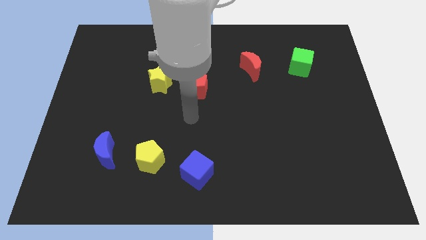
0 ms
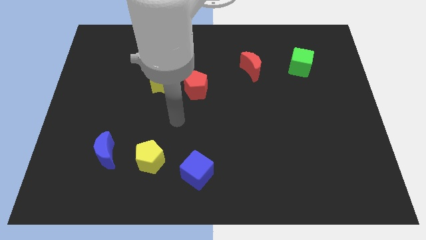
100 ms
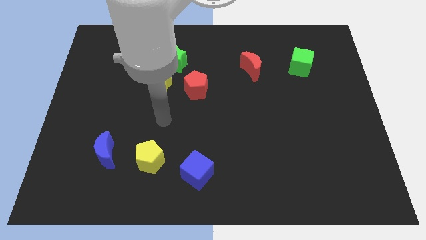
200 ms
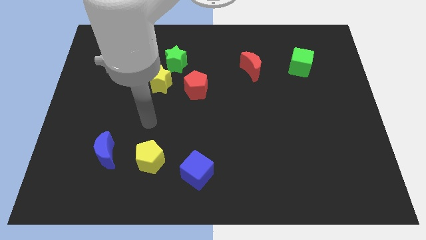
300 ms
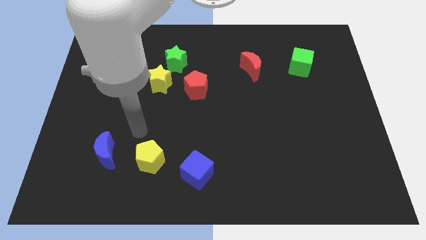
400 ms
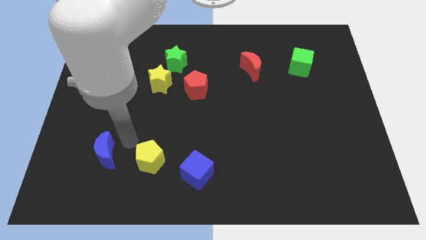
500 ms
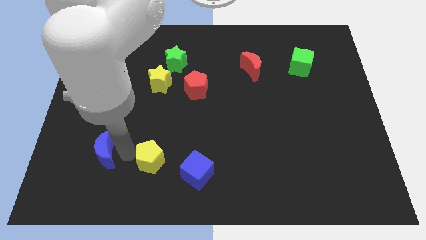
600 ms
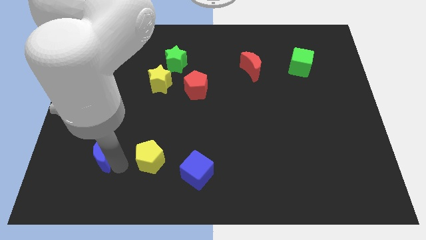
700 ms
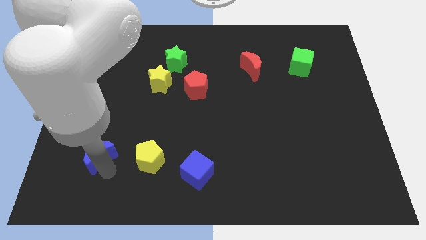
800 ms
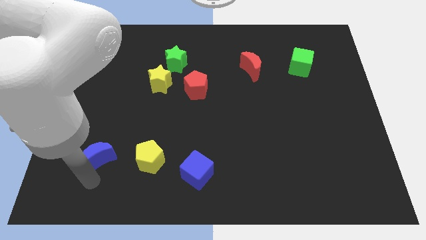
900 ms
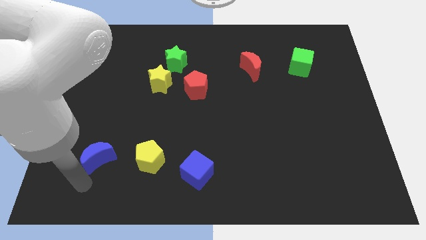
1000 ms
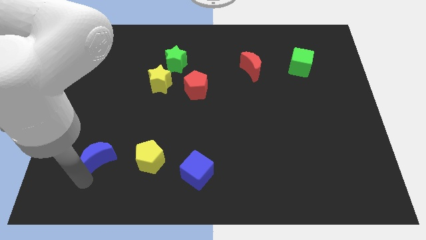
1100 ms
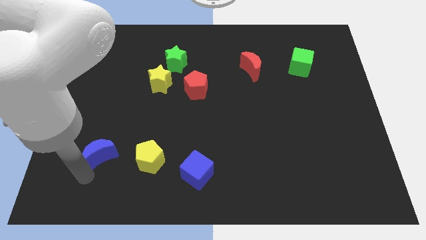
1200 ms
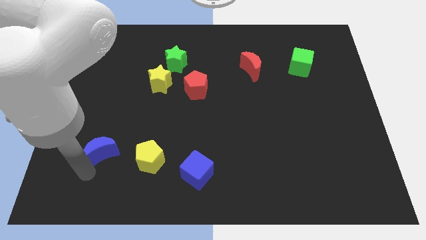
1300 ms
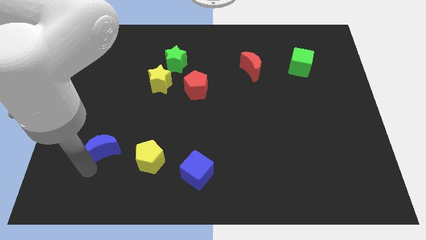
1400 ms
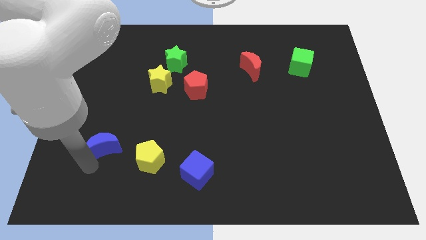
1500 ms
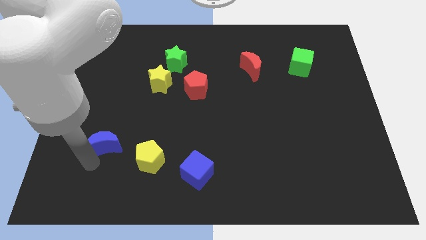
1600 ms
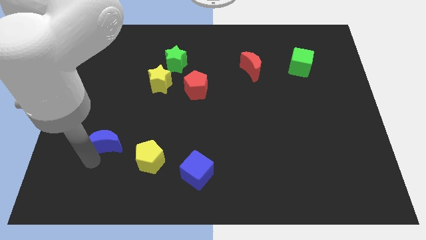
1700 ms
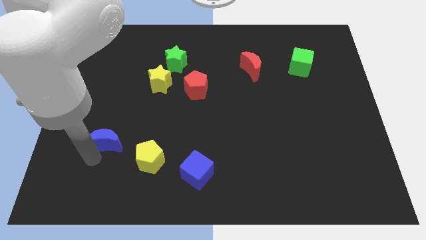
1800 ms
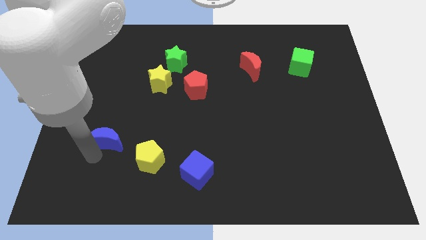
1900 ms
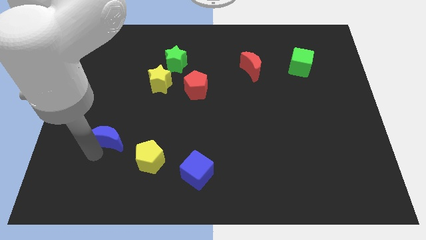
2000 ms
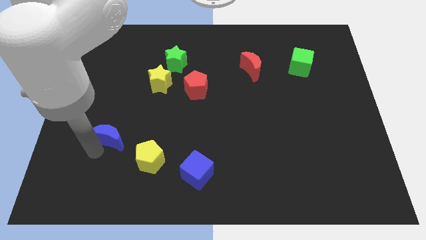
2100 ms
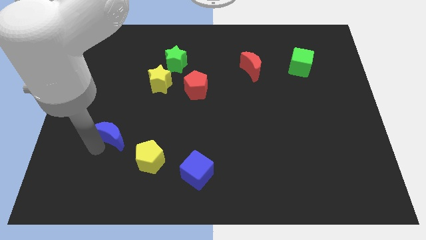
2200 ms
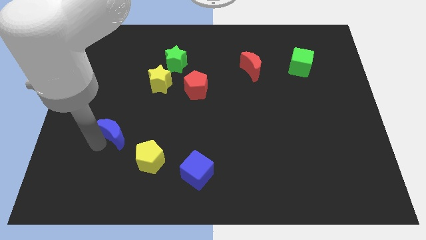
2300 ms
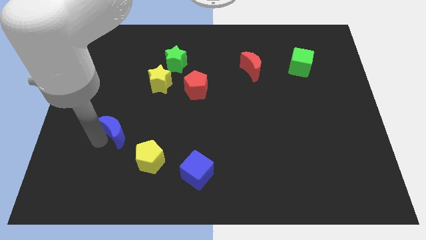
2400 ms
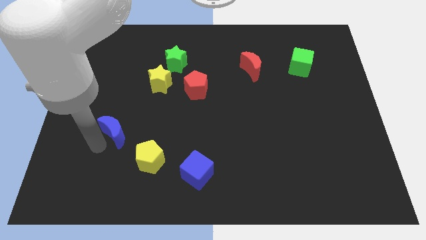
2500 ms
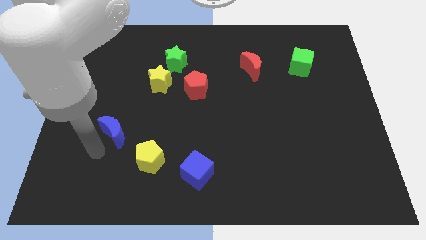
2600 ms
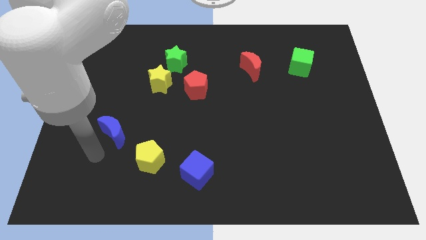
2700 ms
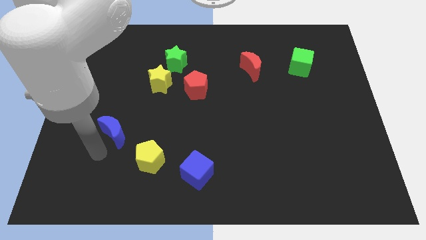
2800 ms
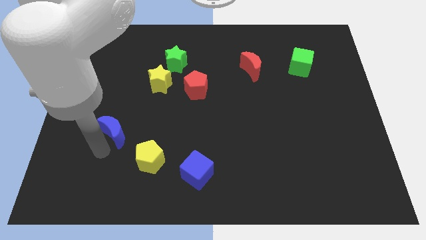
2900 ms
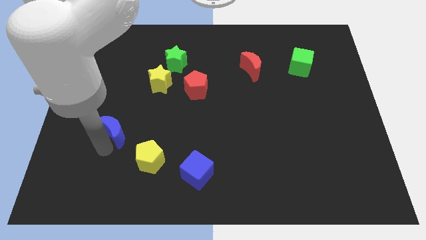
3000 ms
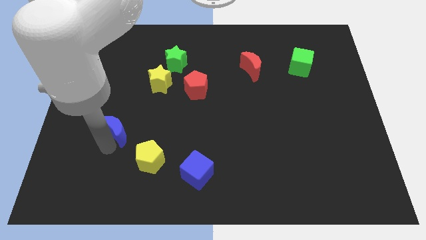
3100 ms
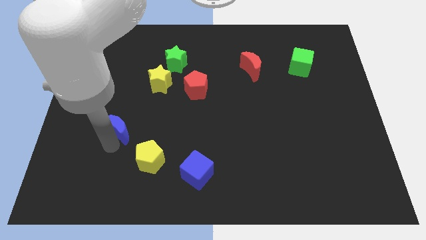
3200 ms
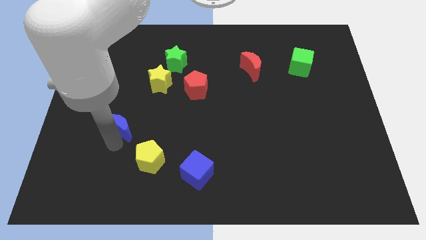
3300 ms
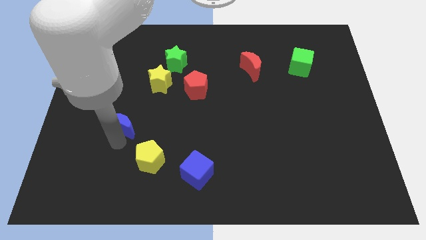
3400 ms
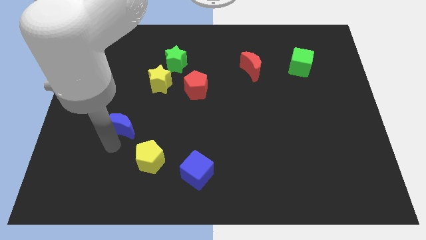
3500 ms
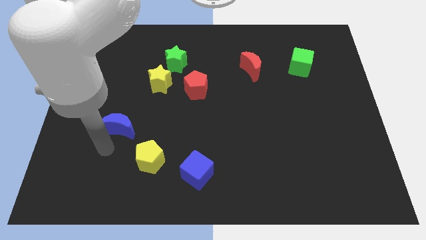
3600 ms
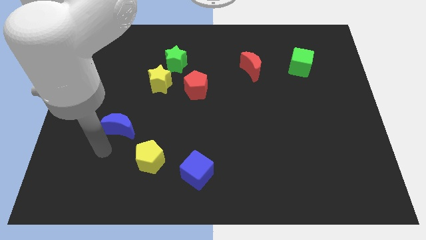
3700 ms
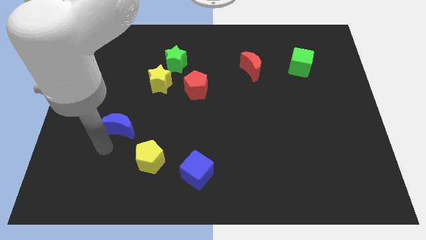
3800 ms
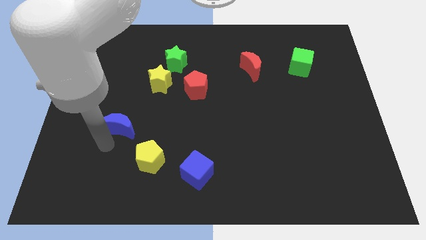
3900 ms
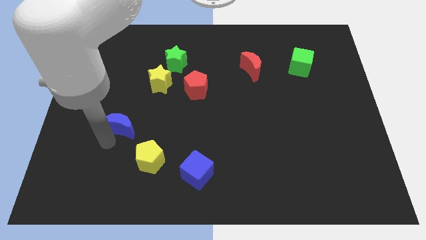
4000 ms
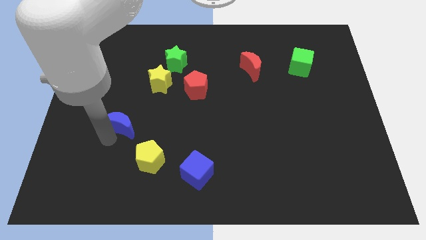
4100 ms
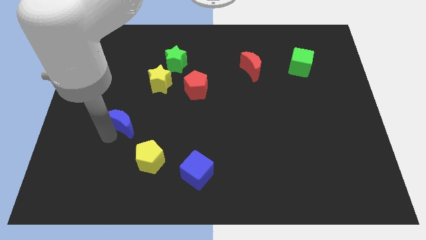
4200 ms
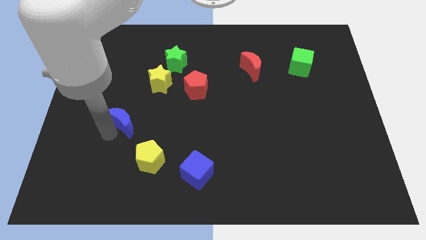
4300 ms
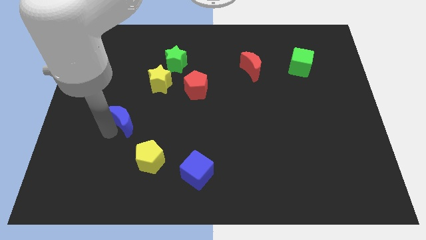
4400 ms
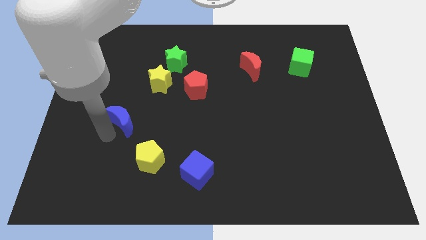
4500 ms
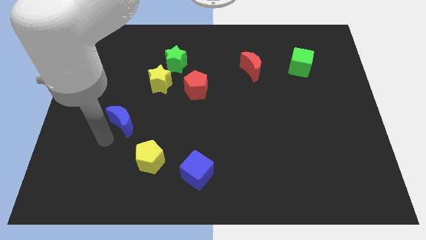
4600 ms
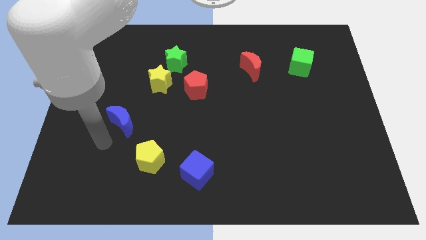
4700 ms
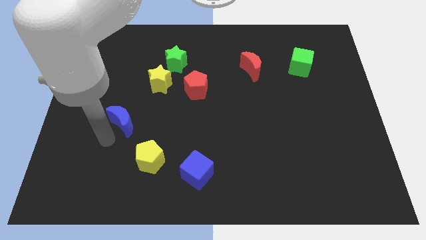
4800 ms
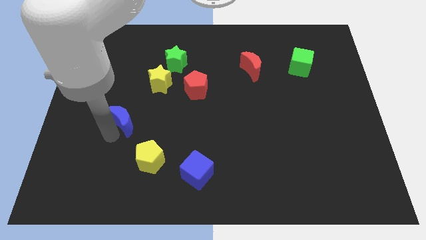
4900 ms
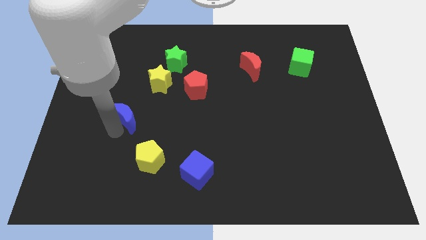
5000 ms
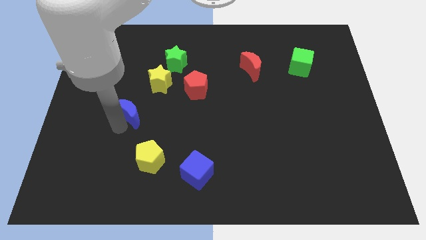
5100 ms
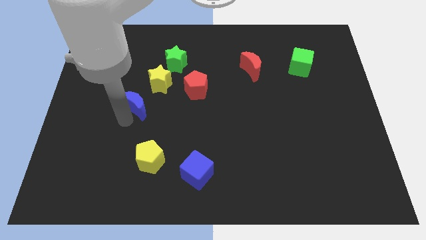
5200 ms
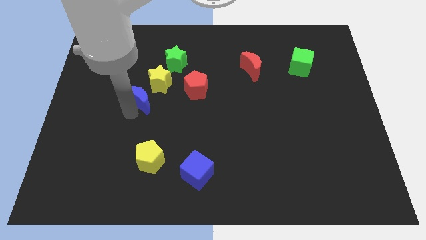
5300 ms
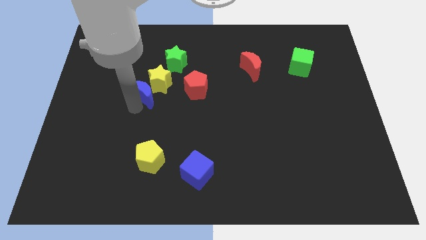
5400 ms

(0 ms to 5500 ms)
put the blue moon to the yellow star

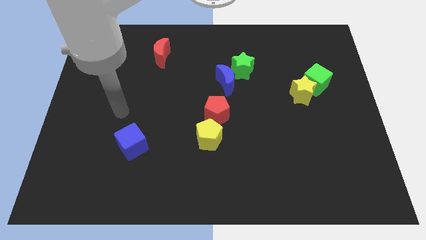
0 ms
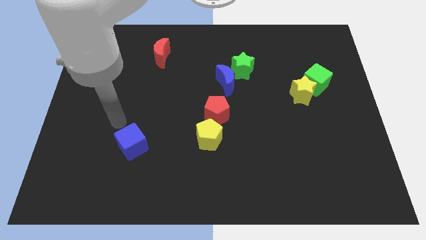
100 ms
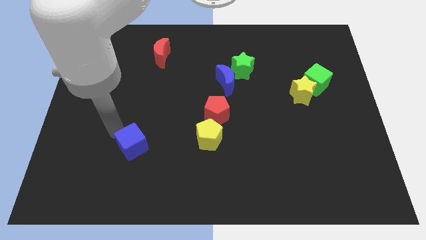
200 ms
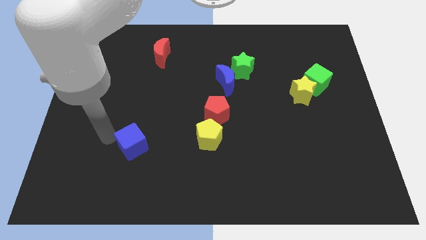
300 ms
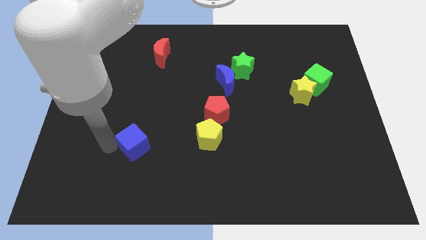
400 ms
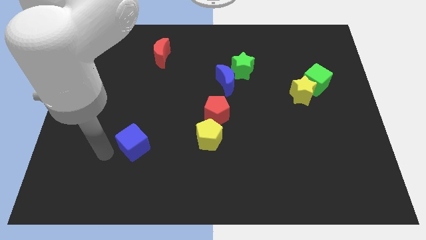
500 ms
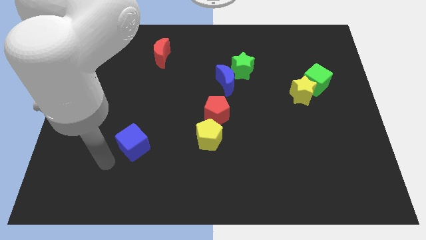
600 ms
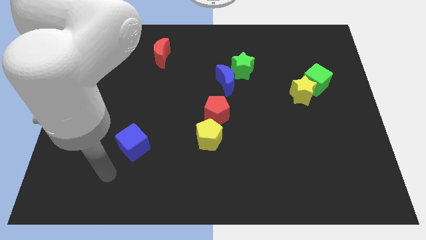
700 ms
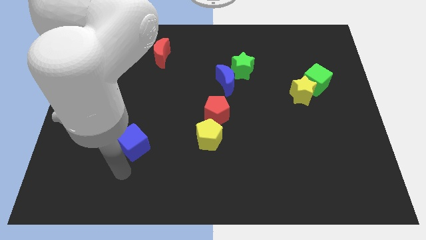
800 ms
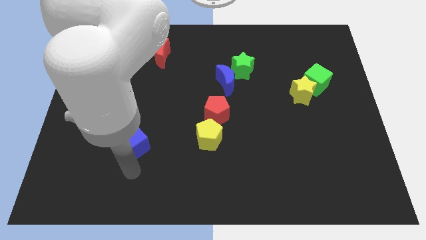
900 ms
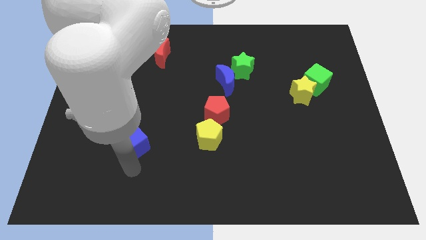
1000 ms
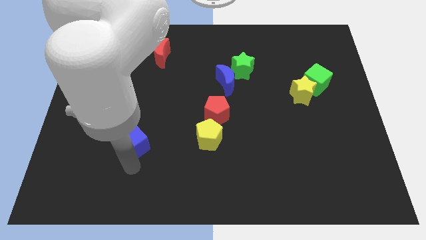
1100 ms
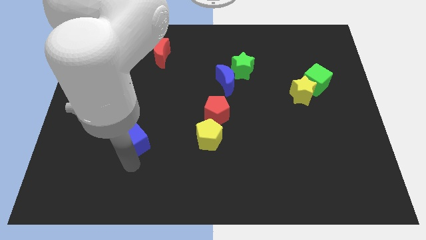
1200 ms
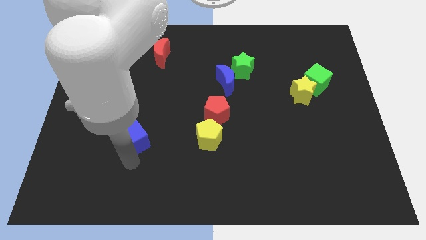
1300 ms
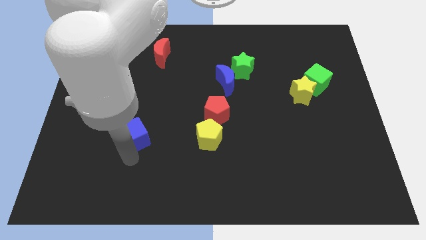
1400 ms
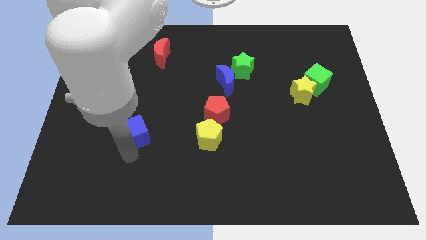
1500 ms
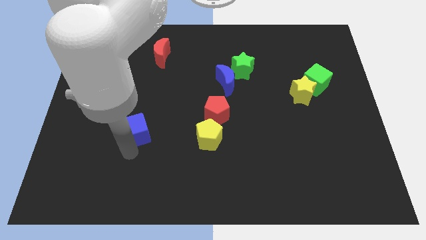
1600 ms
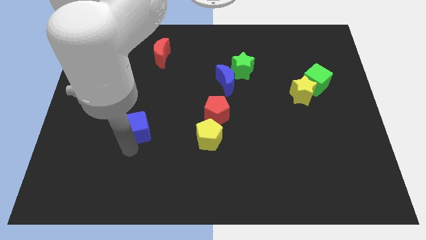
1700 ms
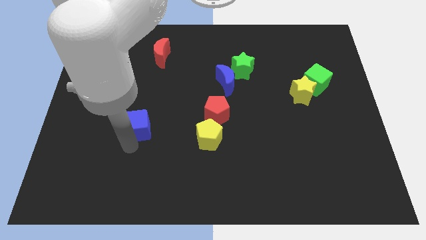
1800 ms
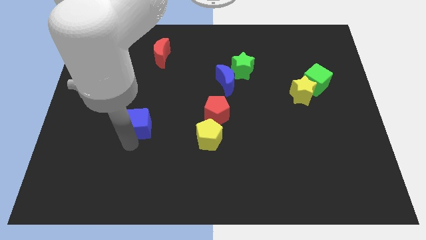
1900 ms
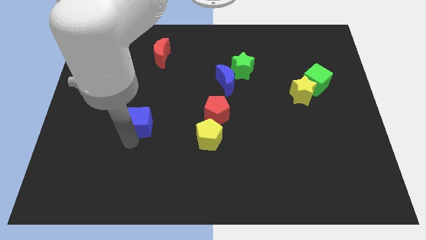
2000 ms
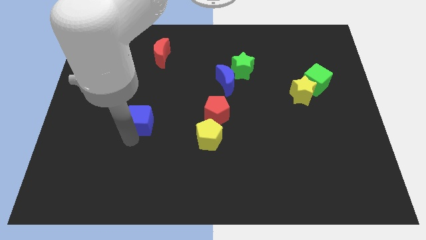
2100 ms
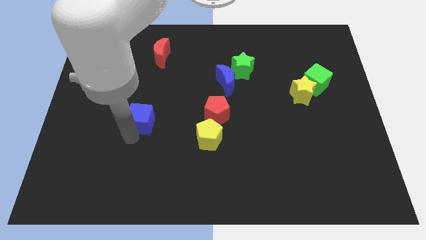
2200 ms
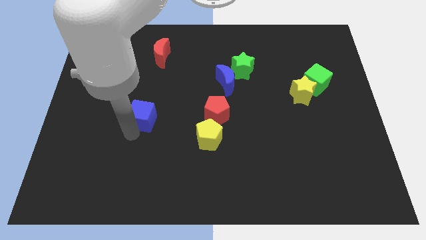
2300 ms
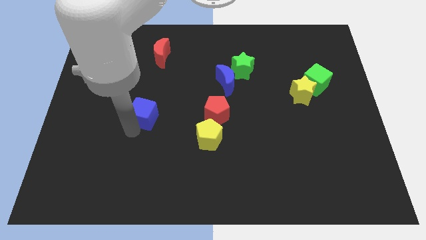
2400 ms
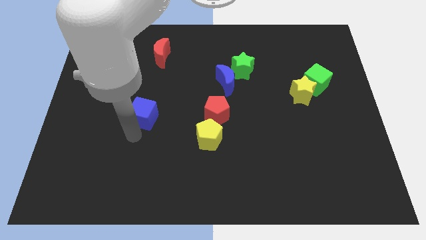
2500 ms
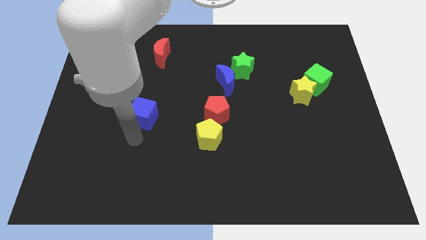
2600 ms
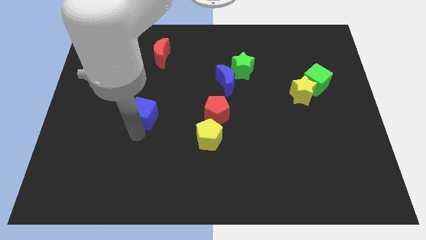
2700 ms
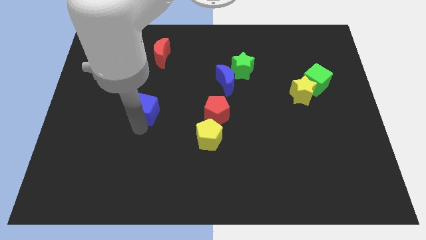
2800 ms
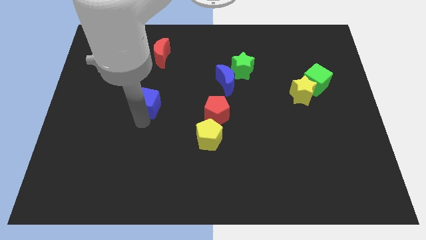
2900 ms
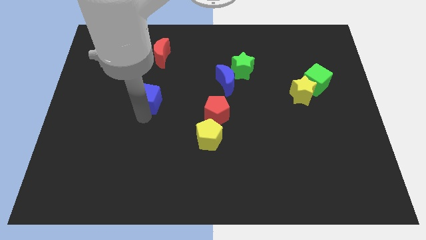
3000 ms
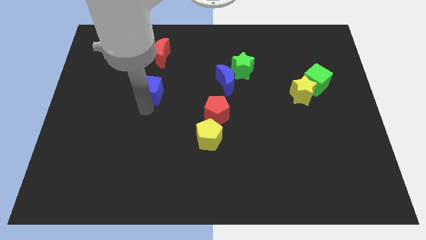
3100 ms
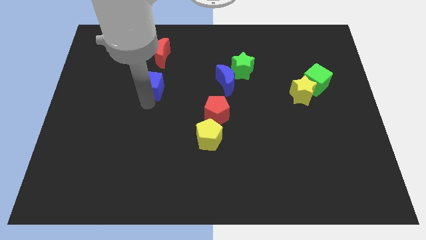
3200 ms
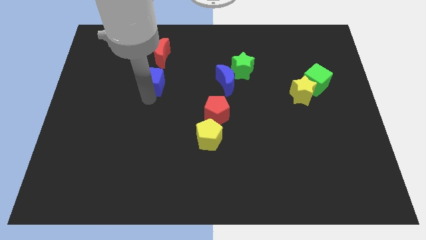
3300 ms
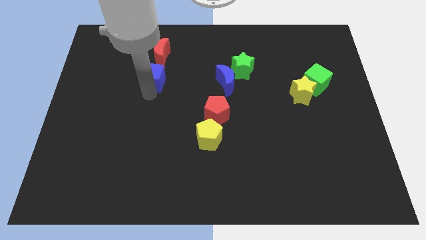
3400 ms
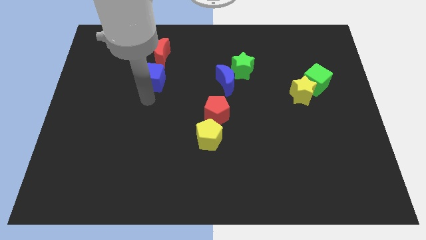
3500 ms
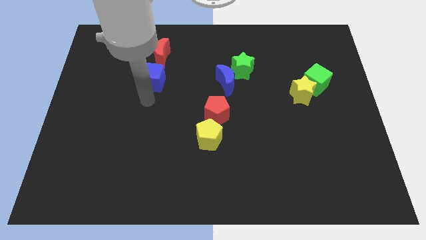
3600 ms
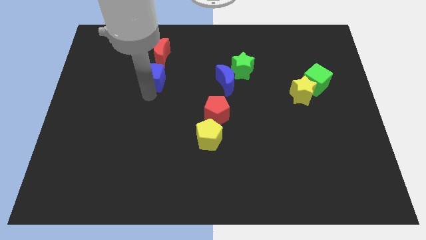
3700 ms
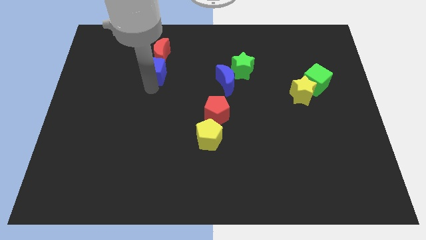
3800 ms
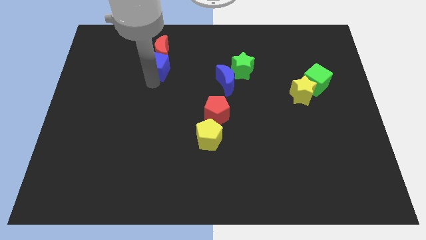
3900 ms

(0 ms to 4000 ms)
push the blue cube close to the red moon
